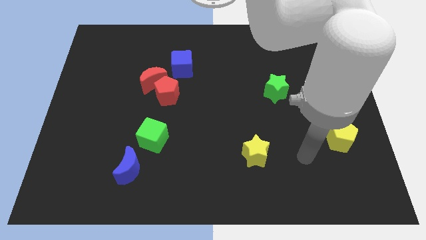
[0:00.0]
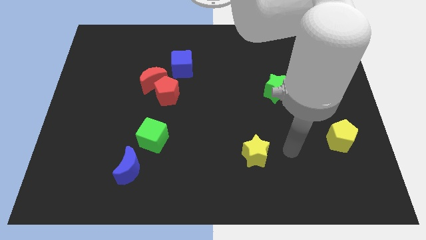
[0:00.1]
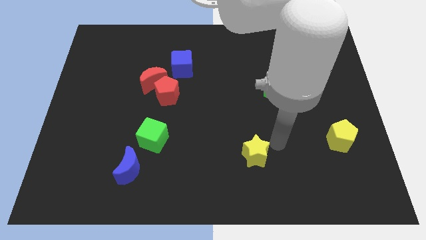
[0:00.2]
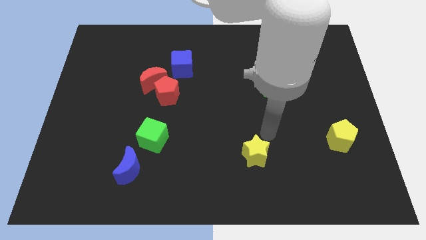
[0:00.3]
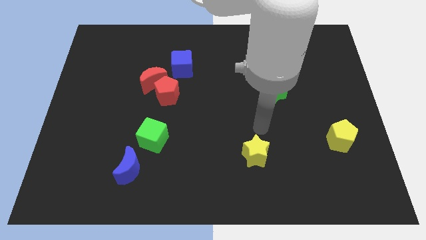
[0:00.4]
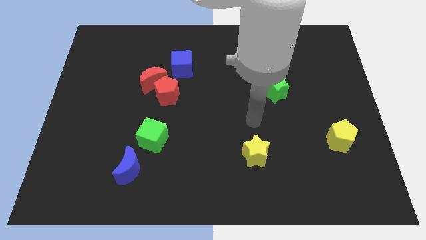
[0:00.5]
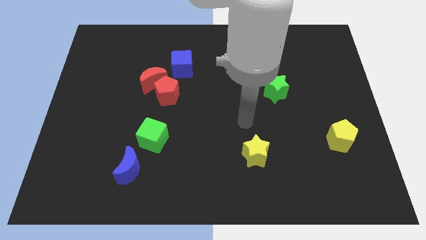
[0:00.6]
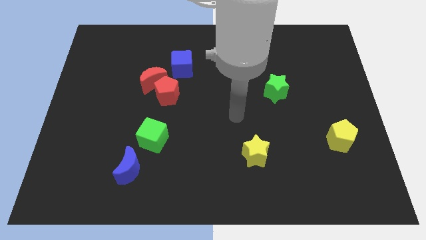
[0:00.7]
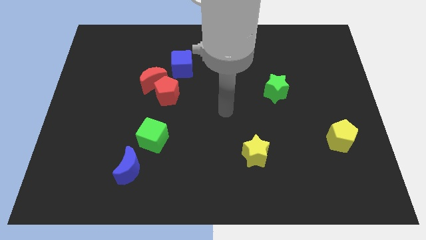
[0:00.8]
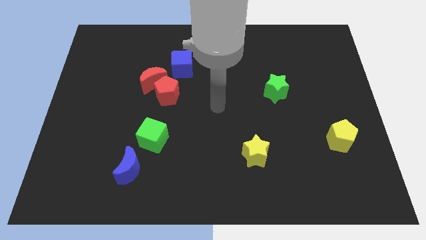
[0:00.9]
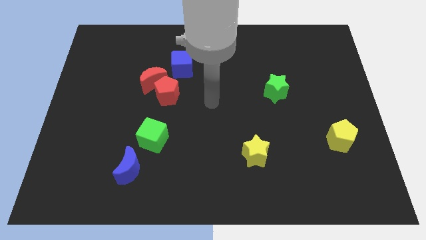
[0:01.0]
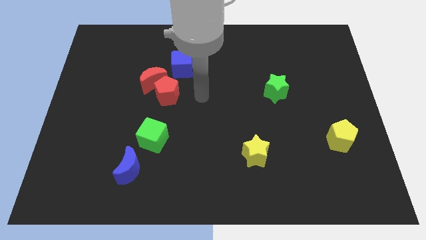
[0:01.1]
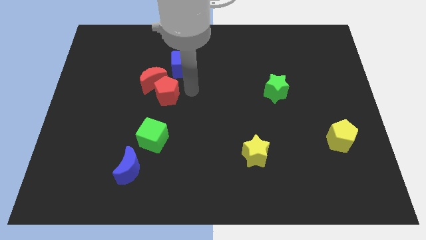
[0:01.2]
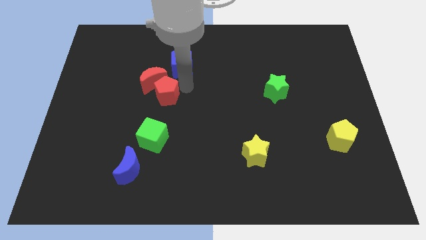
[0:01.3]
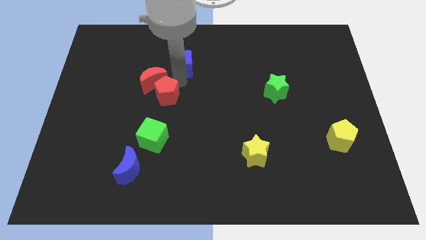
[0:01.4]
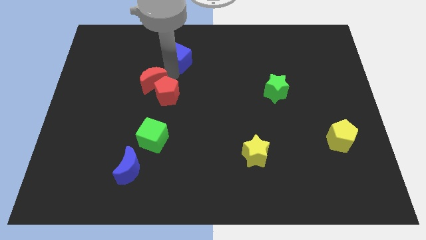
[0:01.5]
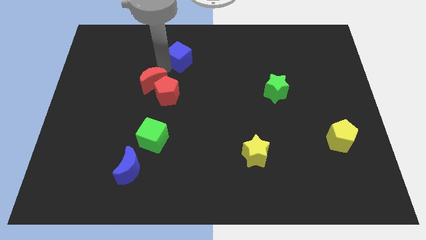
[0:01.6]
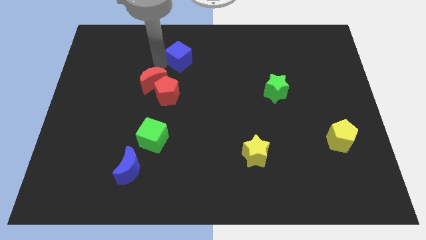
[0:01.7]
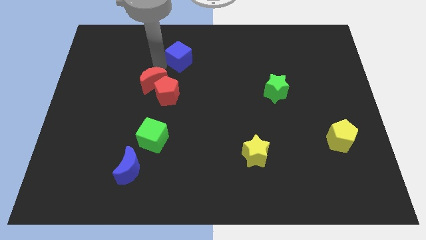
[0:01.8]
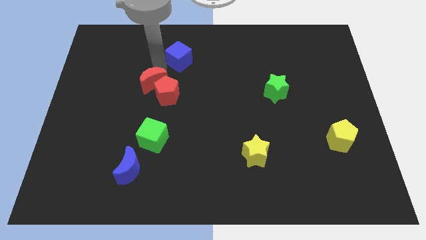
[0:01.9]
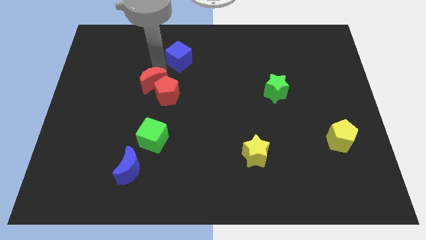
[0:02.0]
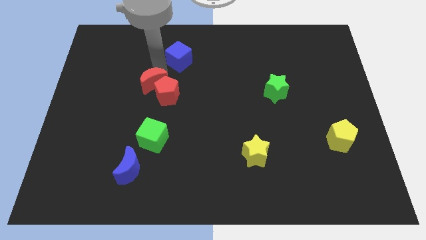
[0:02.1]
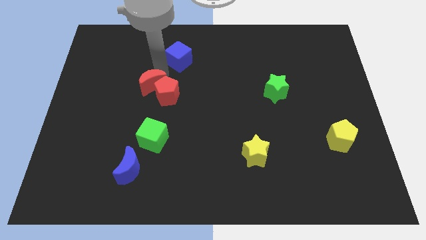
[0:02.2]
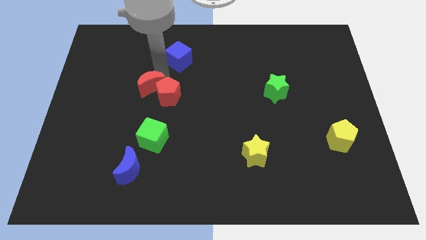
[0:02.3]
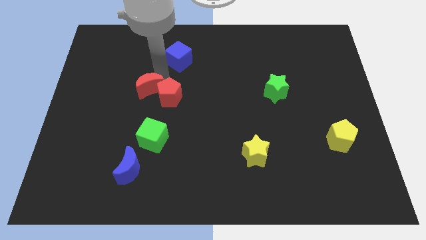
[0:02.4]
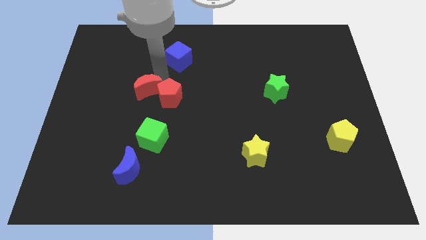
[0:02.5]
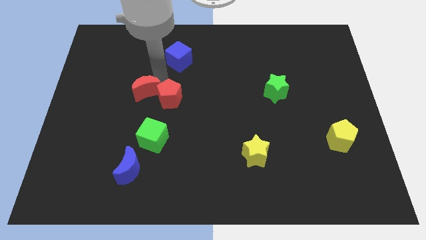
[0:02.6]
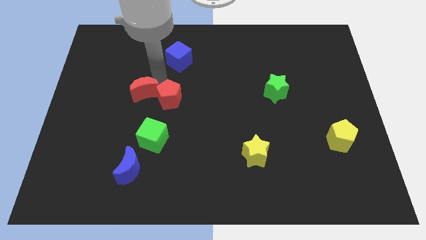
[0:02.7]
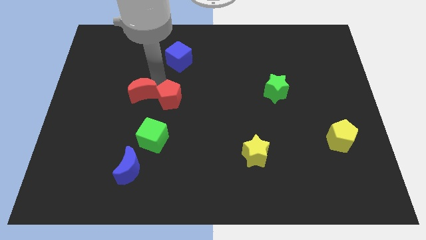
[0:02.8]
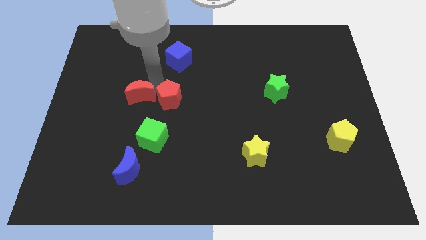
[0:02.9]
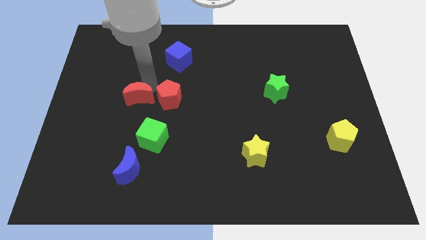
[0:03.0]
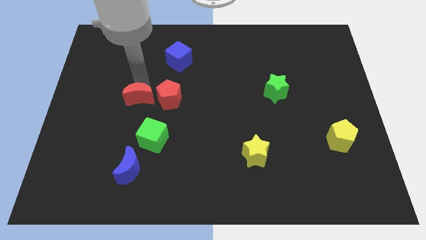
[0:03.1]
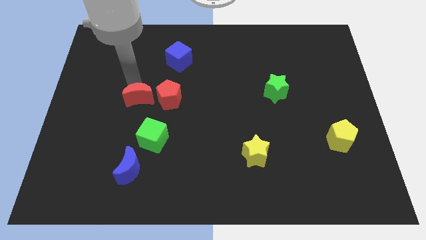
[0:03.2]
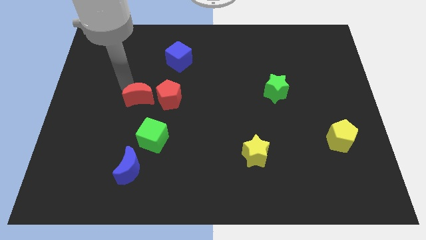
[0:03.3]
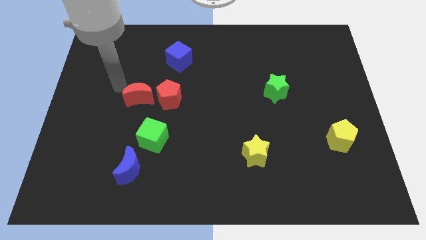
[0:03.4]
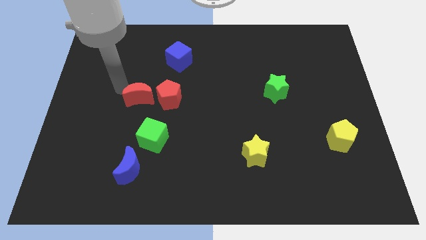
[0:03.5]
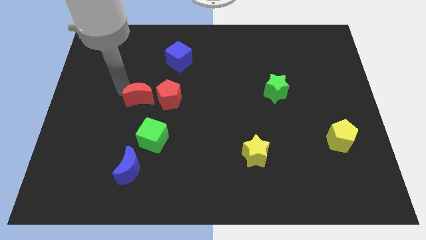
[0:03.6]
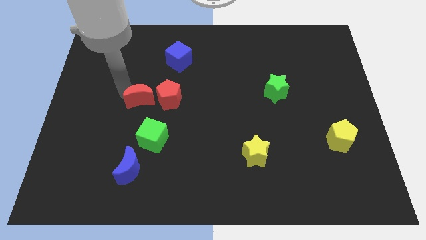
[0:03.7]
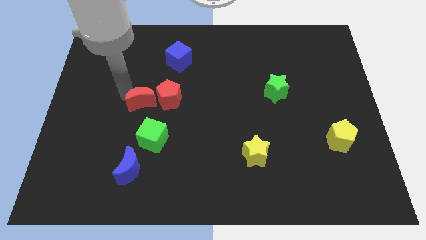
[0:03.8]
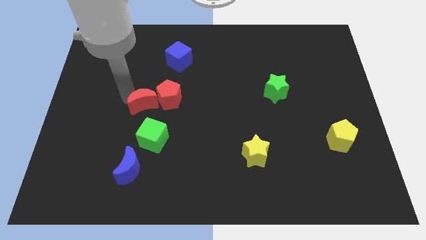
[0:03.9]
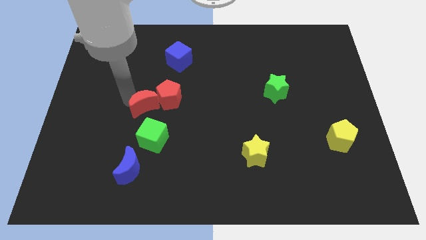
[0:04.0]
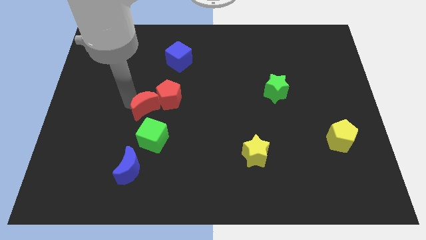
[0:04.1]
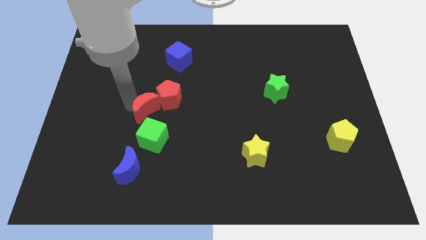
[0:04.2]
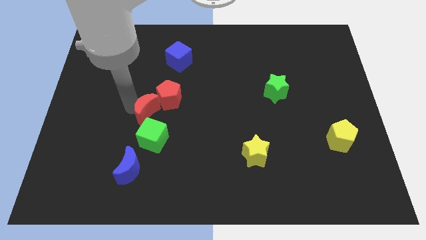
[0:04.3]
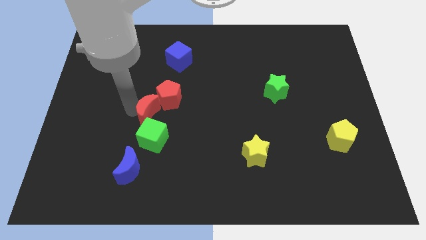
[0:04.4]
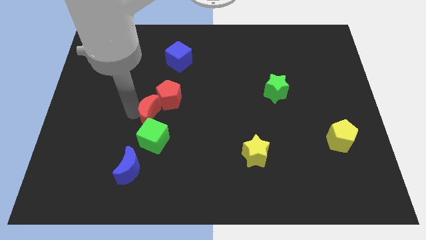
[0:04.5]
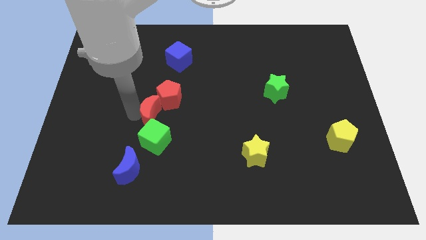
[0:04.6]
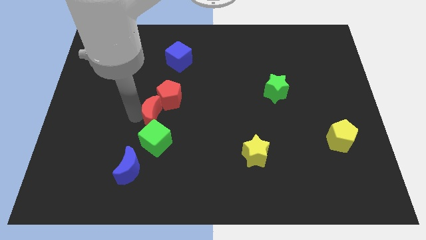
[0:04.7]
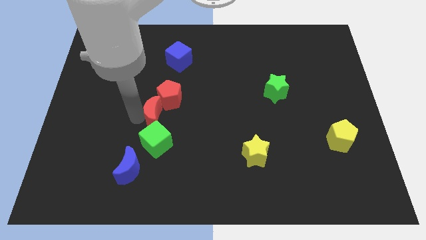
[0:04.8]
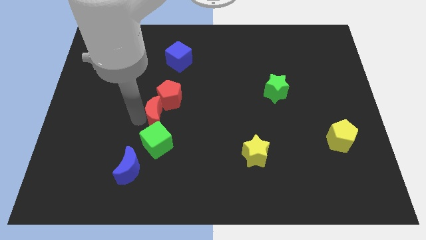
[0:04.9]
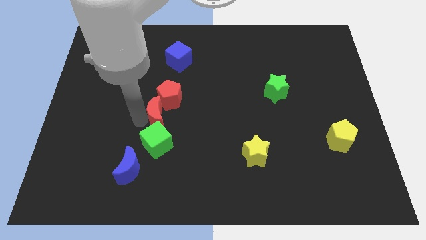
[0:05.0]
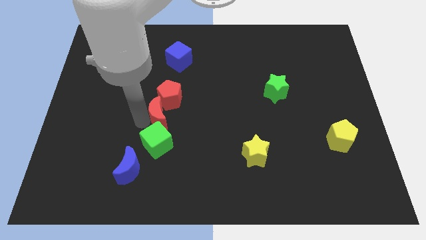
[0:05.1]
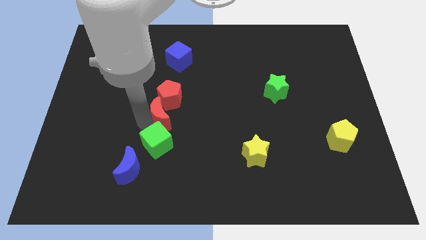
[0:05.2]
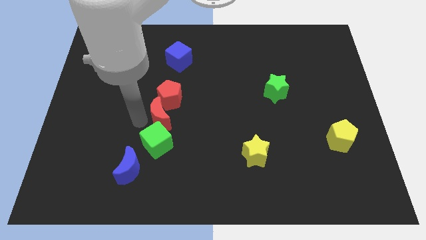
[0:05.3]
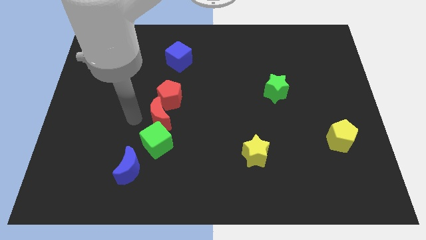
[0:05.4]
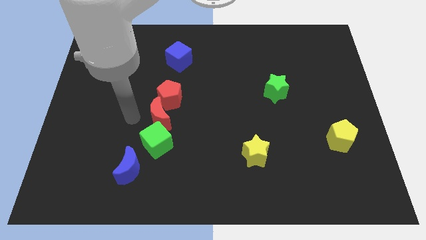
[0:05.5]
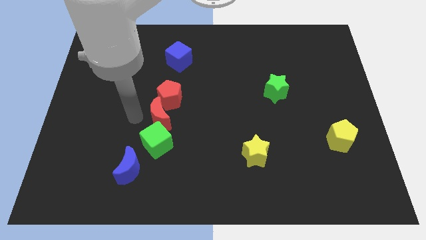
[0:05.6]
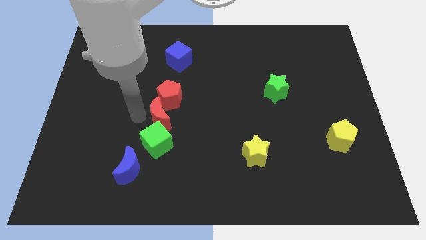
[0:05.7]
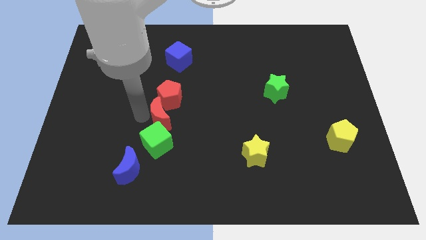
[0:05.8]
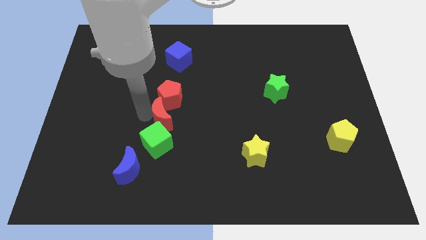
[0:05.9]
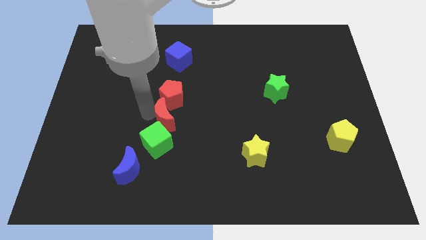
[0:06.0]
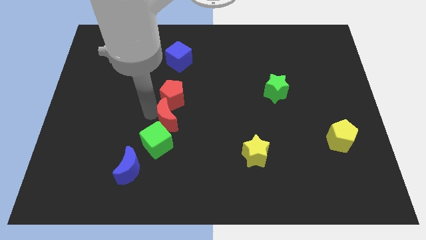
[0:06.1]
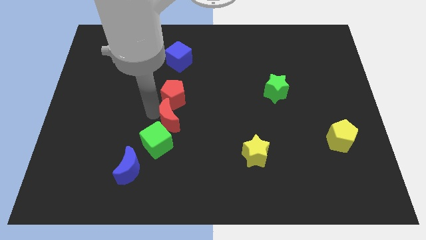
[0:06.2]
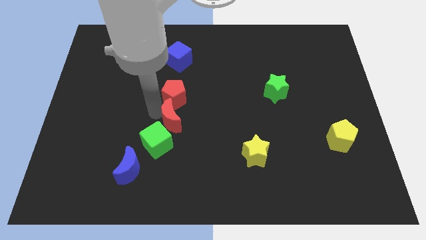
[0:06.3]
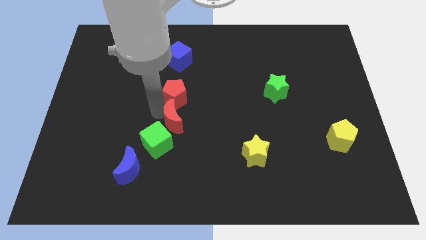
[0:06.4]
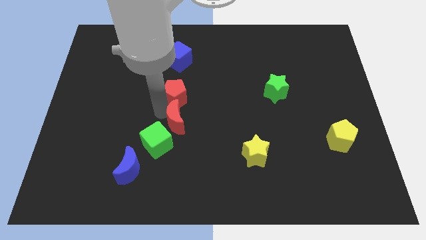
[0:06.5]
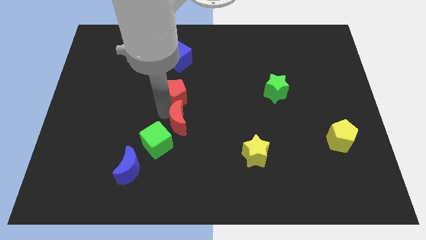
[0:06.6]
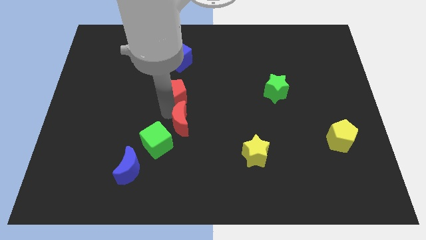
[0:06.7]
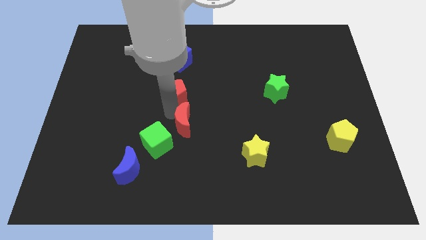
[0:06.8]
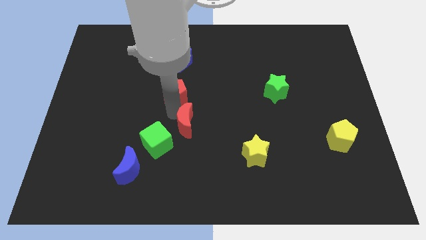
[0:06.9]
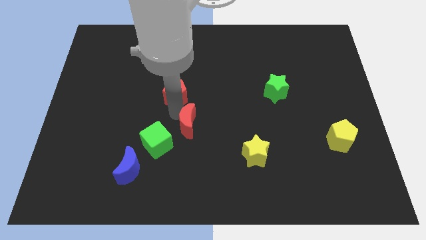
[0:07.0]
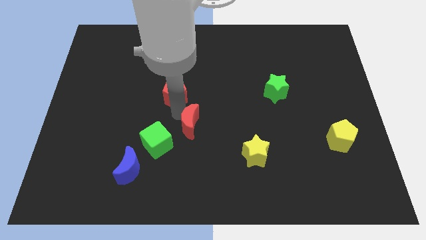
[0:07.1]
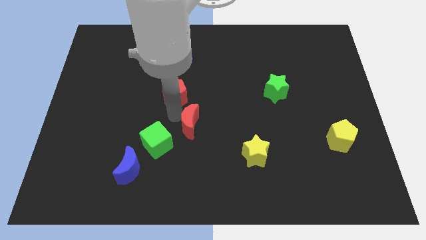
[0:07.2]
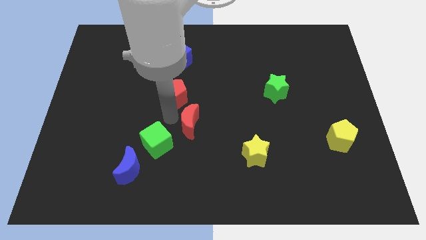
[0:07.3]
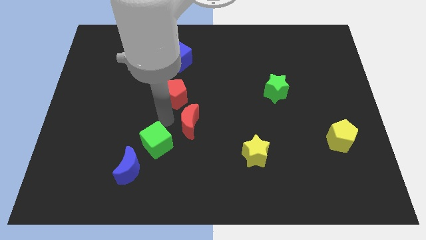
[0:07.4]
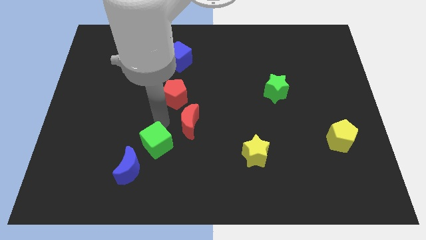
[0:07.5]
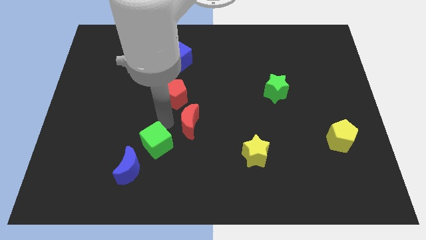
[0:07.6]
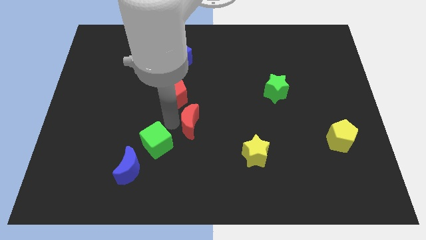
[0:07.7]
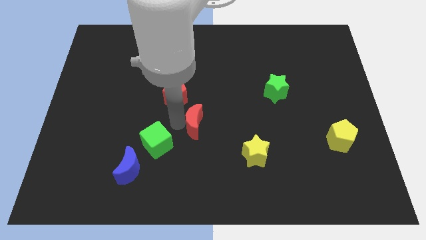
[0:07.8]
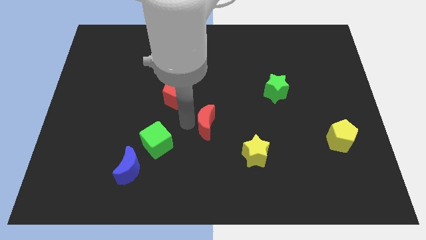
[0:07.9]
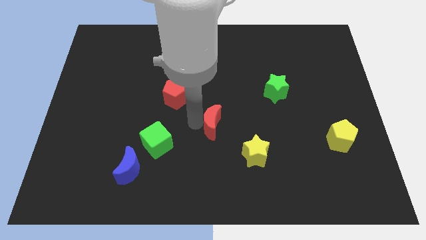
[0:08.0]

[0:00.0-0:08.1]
move the red moon diagonally up and to the left of the yellow star
